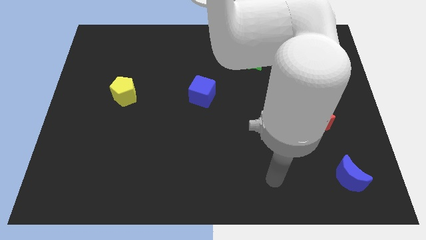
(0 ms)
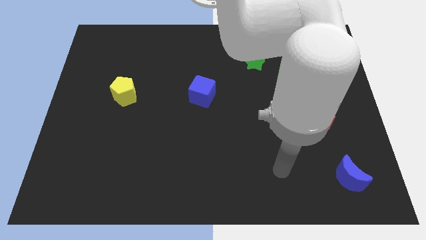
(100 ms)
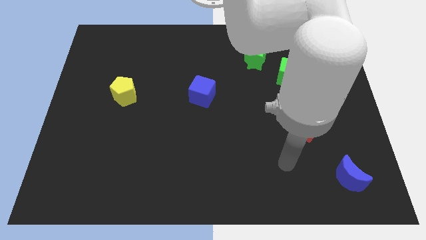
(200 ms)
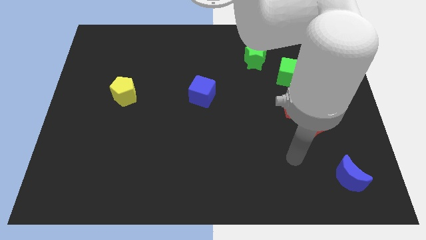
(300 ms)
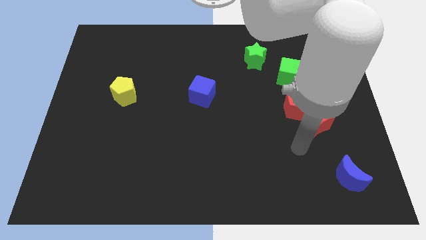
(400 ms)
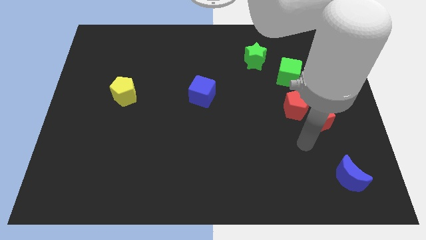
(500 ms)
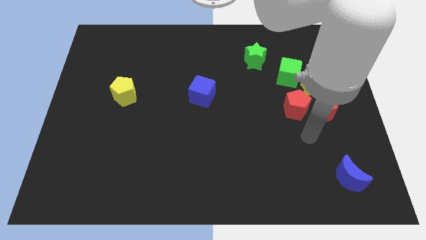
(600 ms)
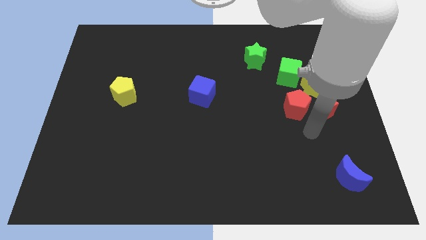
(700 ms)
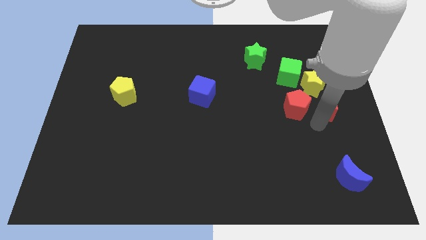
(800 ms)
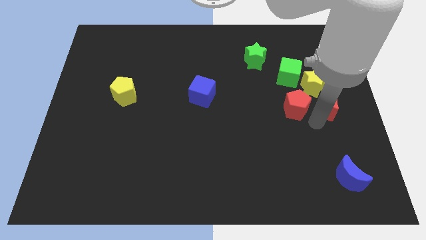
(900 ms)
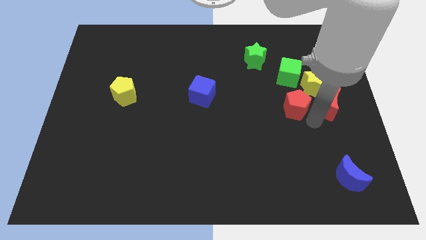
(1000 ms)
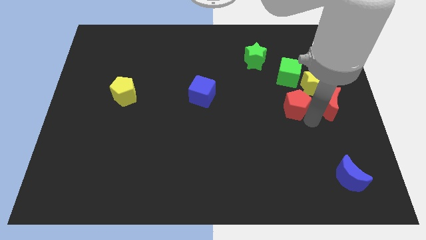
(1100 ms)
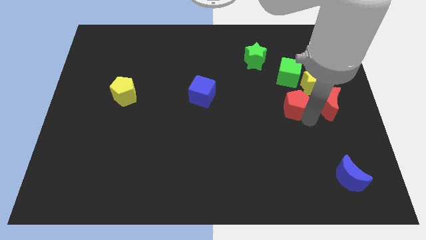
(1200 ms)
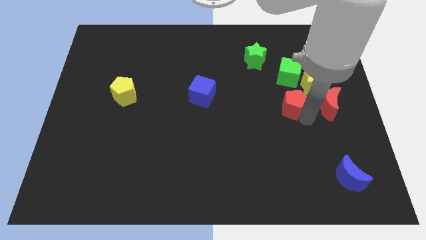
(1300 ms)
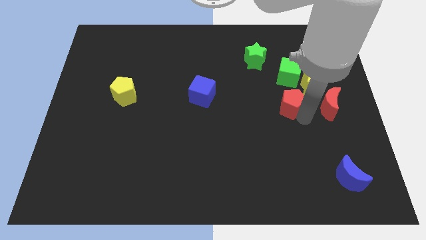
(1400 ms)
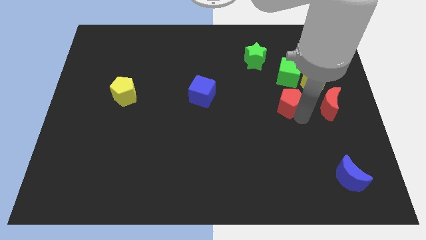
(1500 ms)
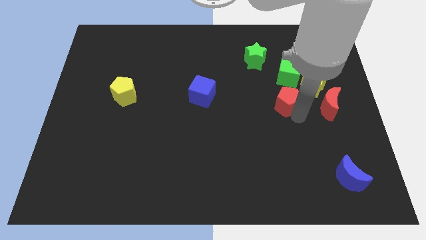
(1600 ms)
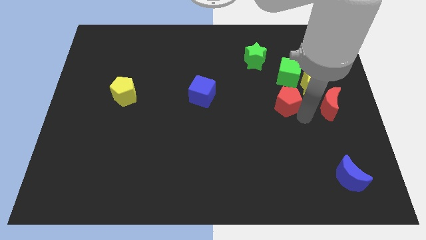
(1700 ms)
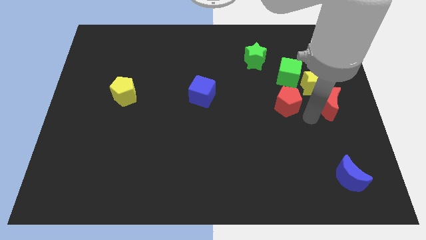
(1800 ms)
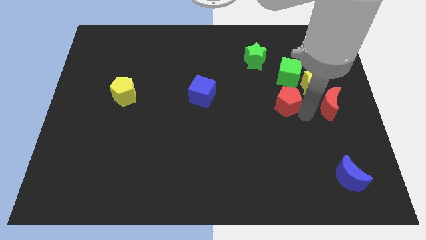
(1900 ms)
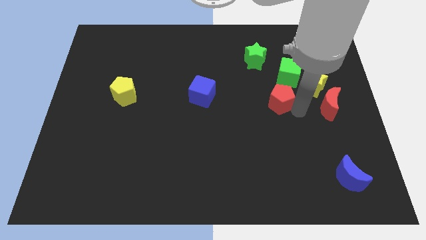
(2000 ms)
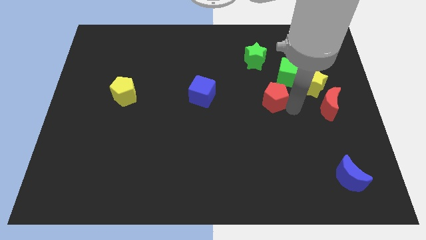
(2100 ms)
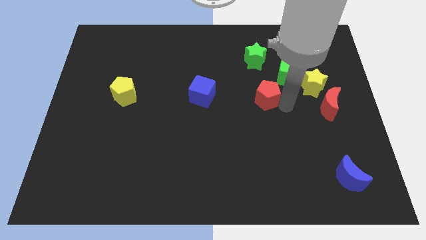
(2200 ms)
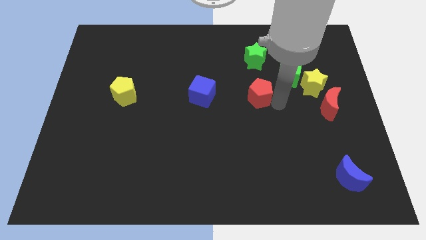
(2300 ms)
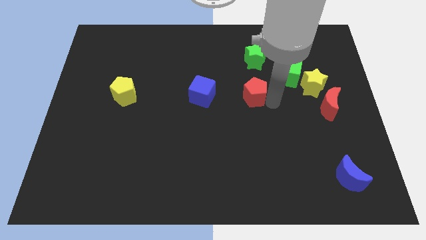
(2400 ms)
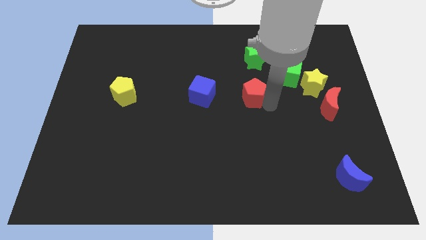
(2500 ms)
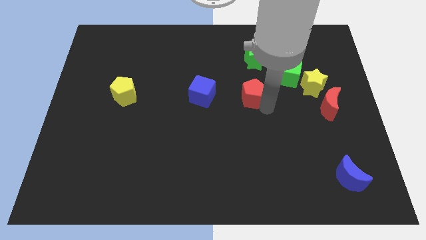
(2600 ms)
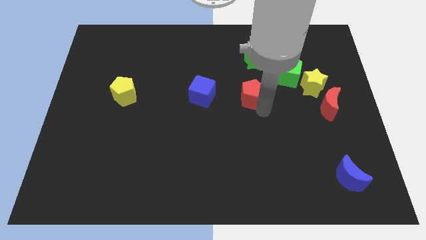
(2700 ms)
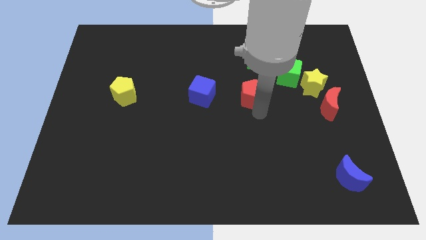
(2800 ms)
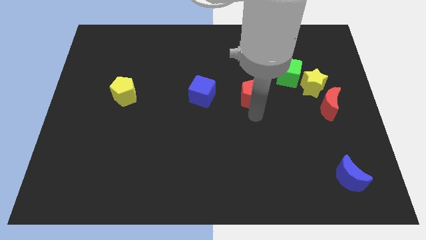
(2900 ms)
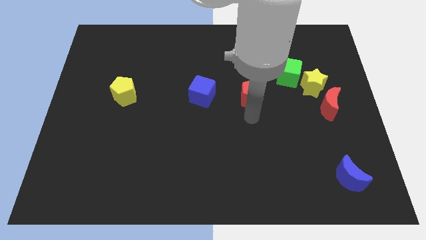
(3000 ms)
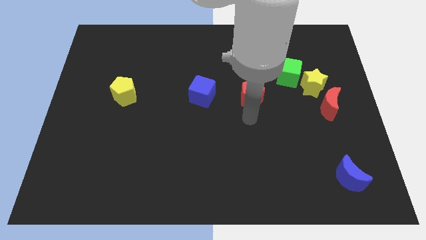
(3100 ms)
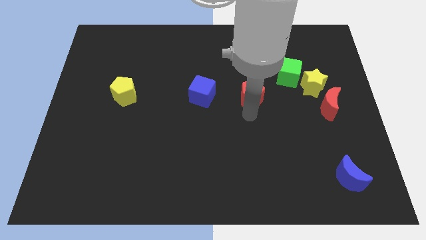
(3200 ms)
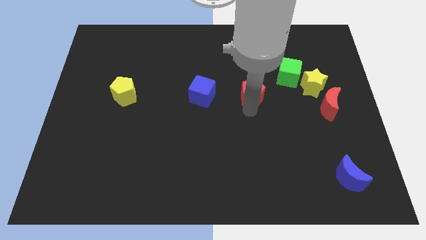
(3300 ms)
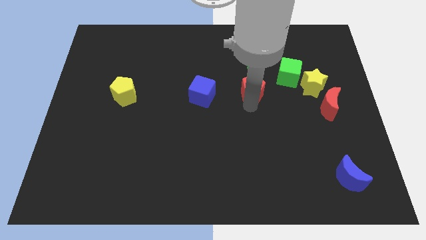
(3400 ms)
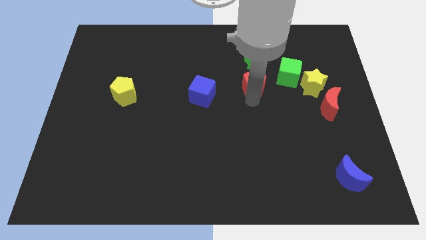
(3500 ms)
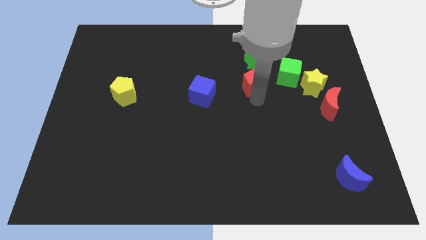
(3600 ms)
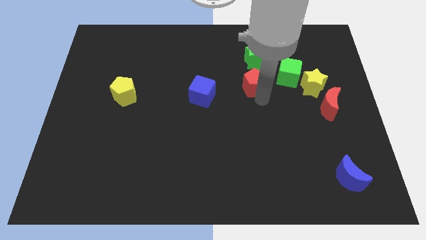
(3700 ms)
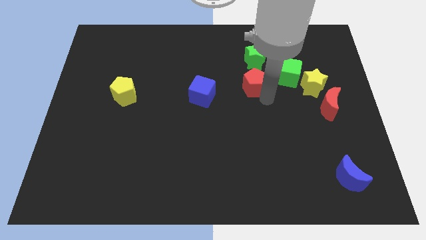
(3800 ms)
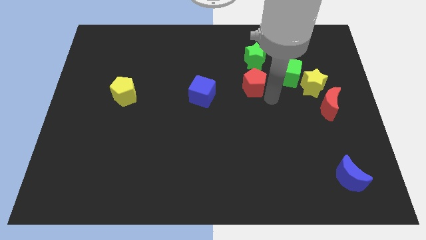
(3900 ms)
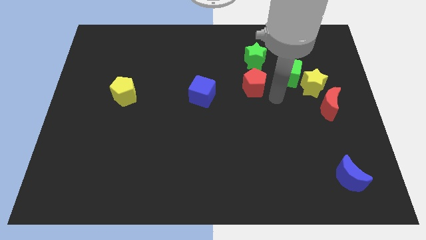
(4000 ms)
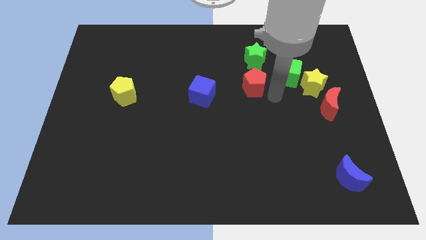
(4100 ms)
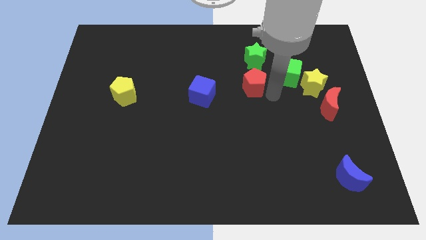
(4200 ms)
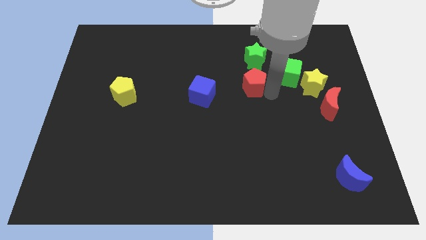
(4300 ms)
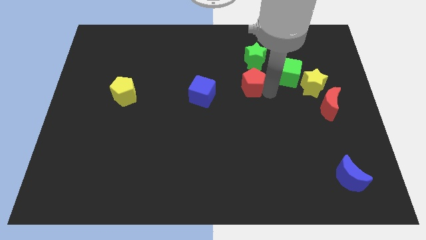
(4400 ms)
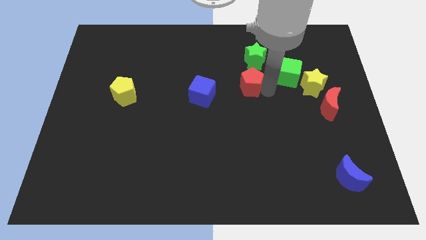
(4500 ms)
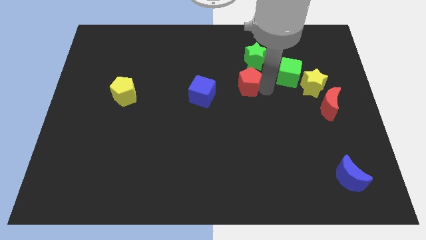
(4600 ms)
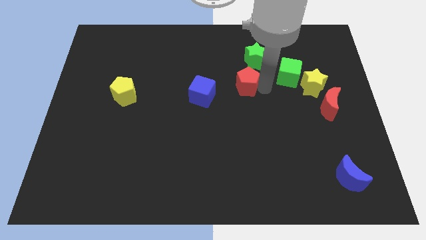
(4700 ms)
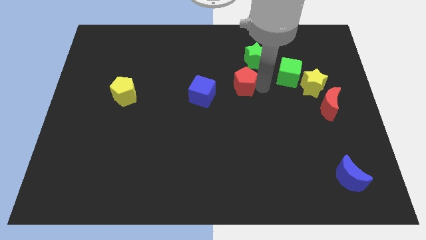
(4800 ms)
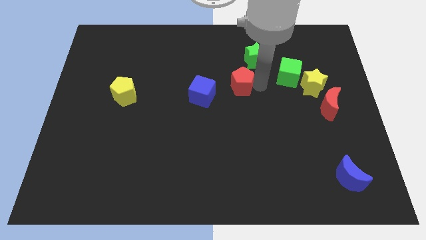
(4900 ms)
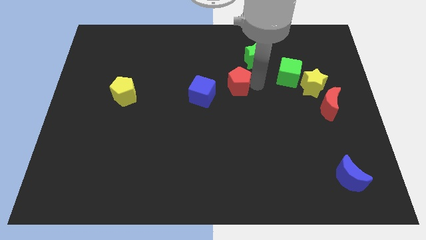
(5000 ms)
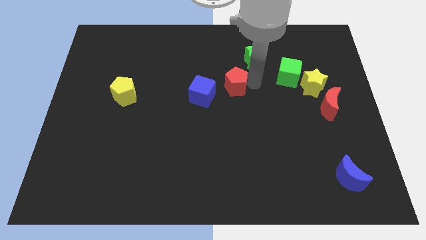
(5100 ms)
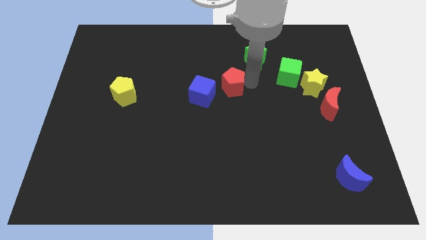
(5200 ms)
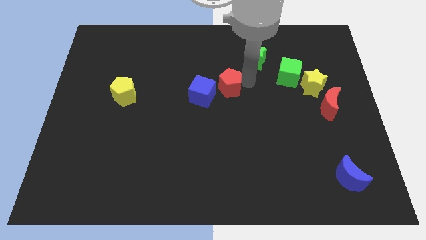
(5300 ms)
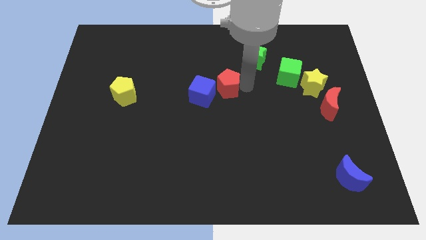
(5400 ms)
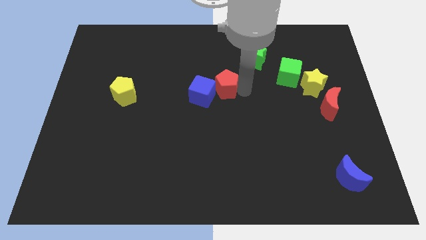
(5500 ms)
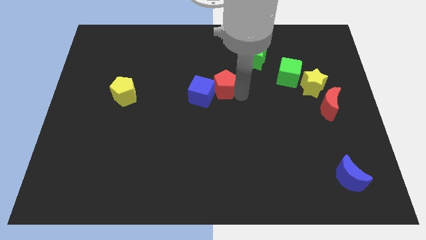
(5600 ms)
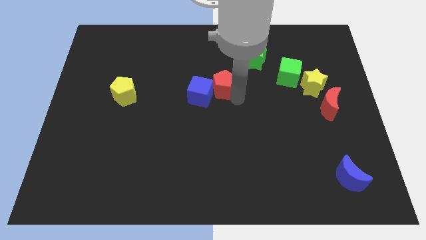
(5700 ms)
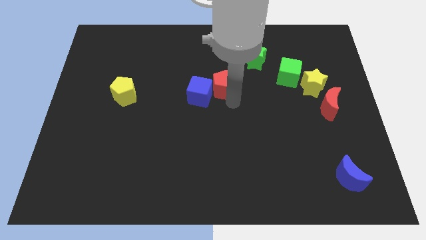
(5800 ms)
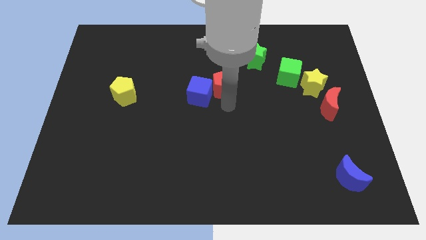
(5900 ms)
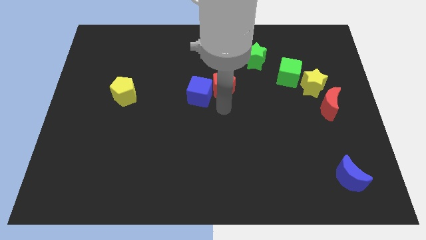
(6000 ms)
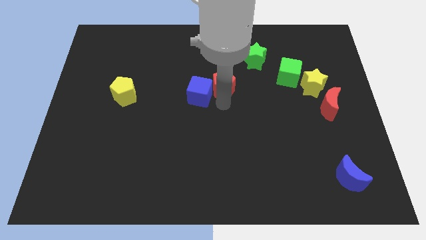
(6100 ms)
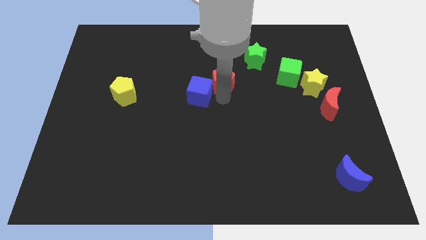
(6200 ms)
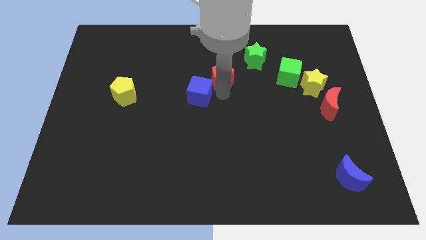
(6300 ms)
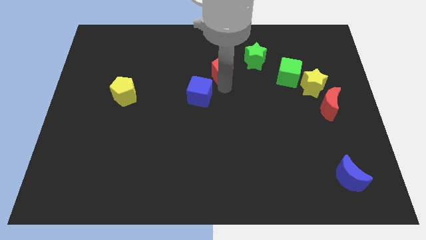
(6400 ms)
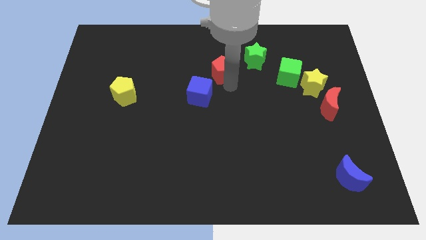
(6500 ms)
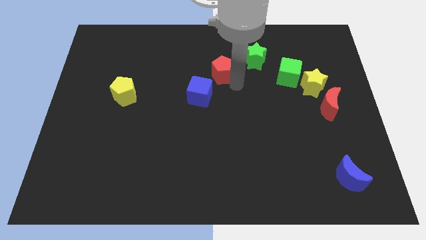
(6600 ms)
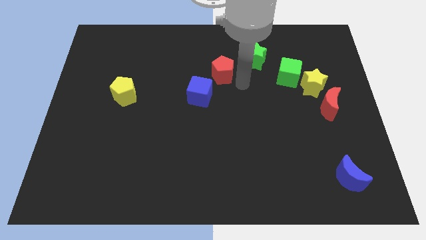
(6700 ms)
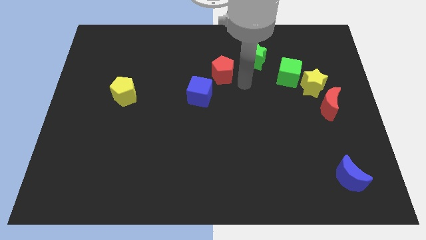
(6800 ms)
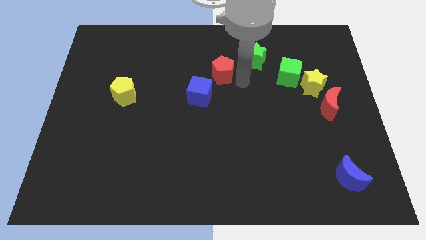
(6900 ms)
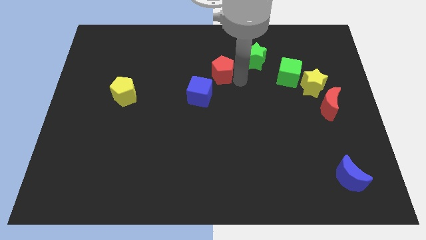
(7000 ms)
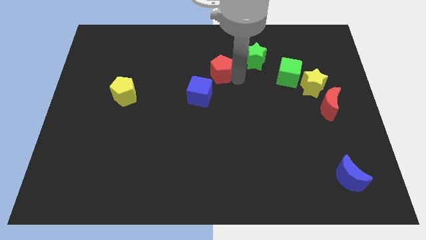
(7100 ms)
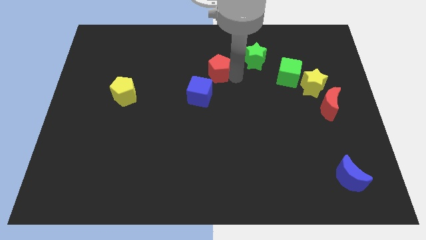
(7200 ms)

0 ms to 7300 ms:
put the red pentagon above the blue cube
